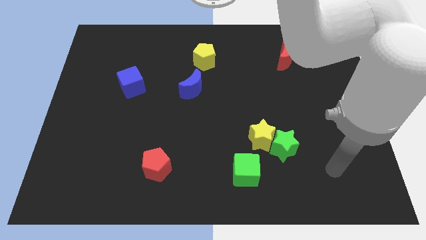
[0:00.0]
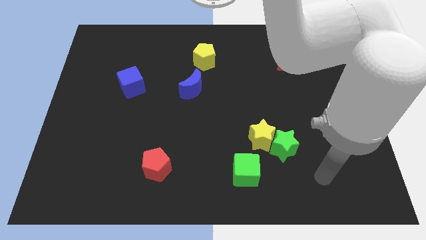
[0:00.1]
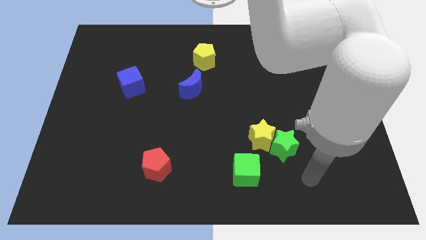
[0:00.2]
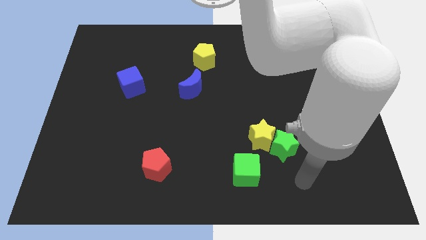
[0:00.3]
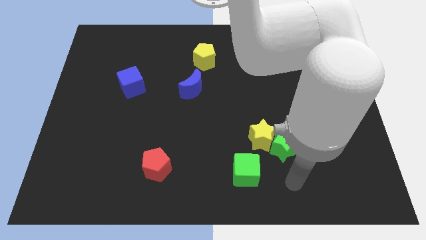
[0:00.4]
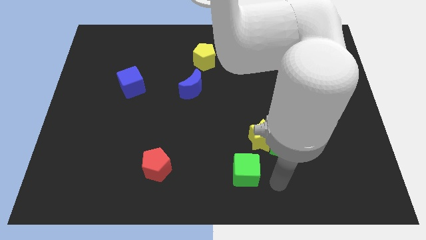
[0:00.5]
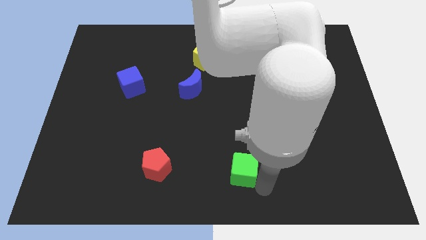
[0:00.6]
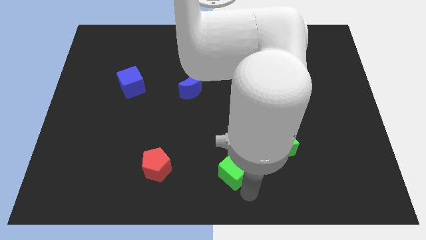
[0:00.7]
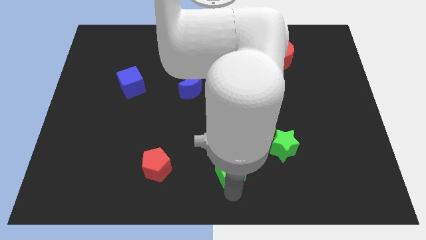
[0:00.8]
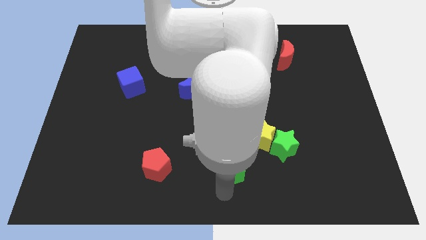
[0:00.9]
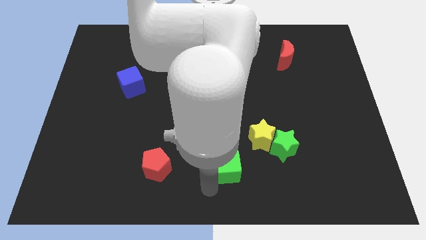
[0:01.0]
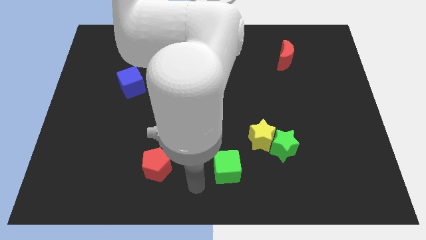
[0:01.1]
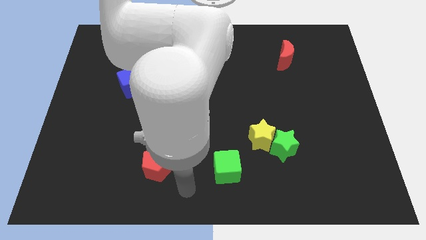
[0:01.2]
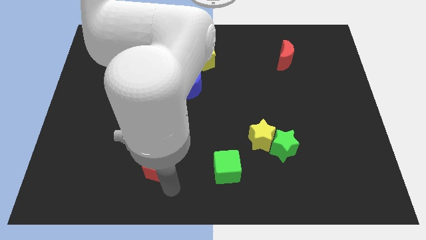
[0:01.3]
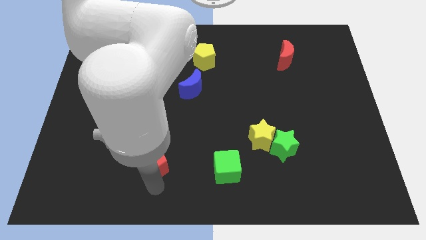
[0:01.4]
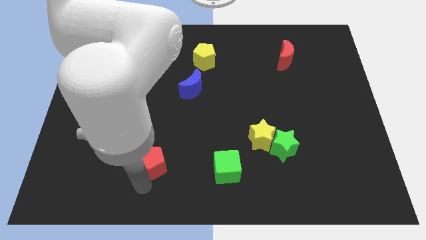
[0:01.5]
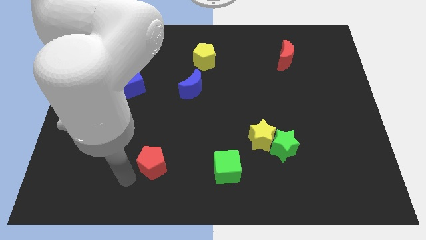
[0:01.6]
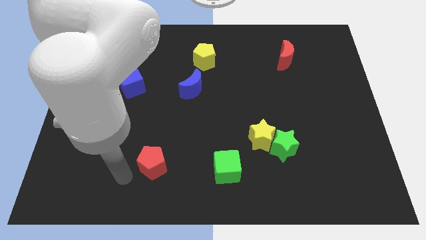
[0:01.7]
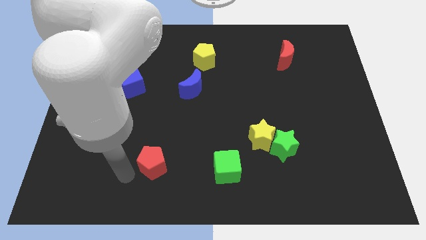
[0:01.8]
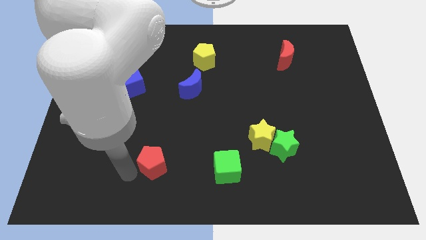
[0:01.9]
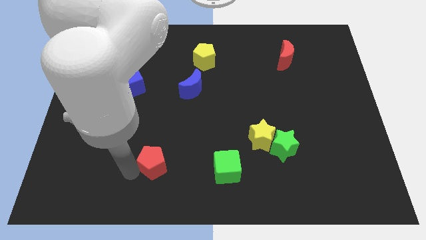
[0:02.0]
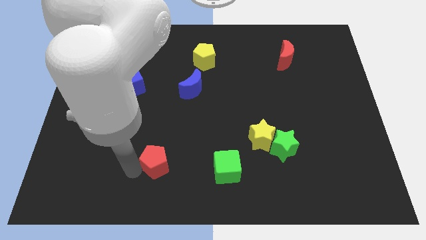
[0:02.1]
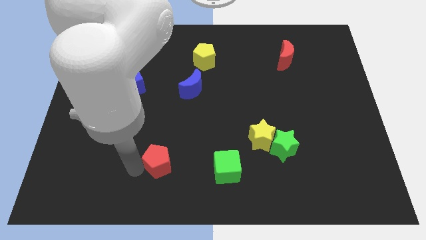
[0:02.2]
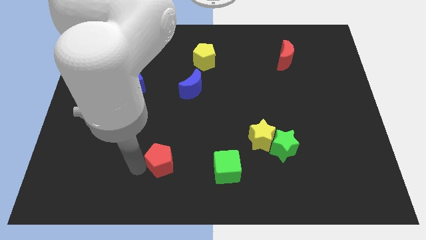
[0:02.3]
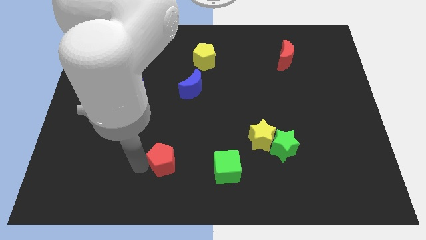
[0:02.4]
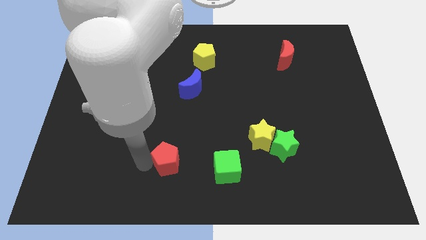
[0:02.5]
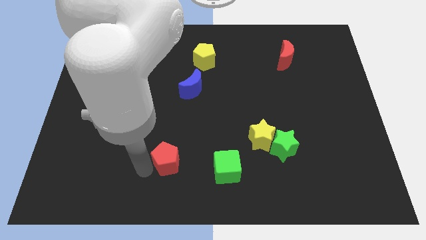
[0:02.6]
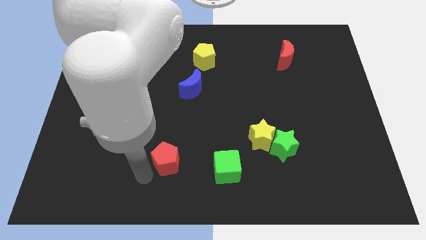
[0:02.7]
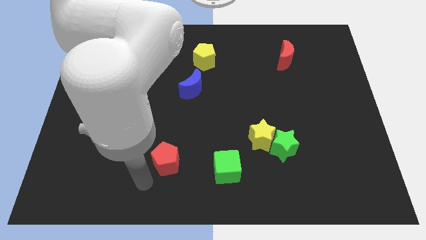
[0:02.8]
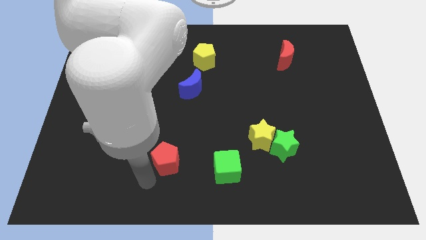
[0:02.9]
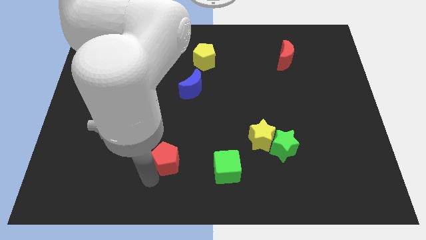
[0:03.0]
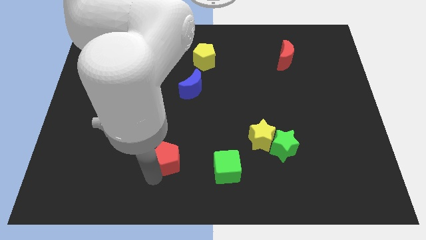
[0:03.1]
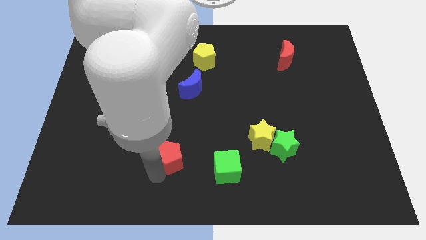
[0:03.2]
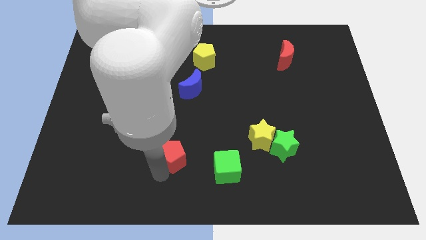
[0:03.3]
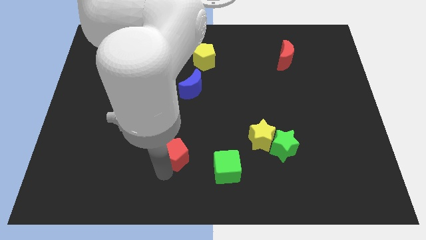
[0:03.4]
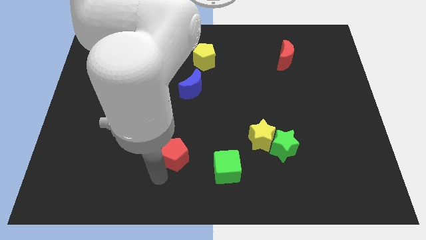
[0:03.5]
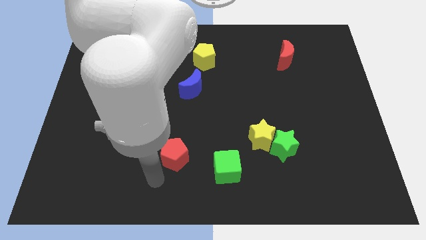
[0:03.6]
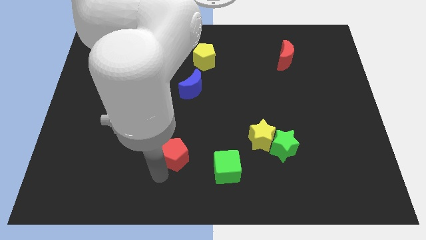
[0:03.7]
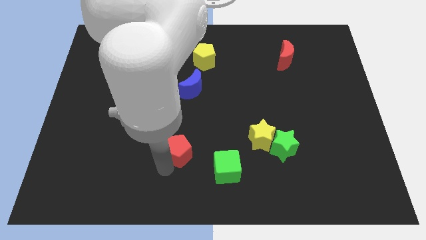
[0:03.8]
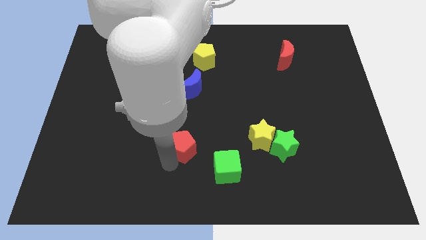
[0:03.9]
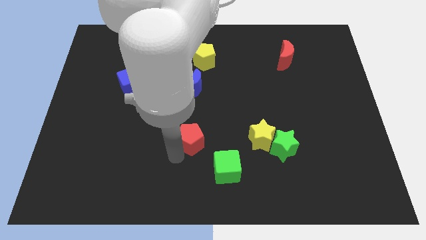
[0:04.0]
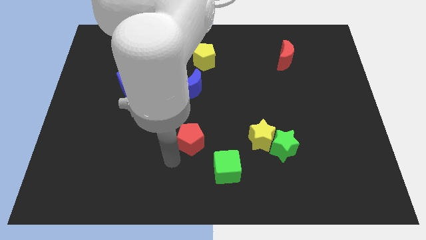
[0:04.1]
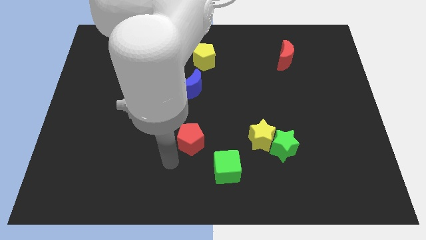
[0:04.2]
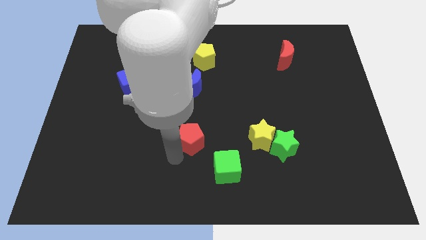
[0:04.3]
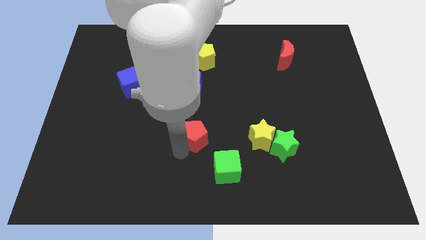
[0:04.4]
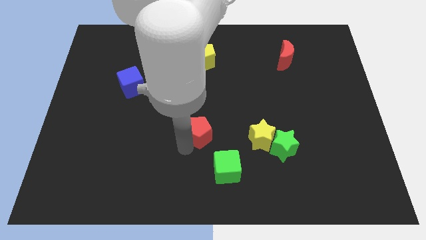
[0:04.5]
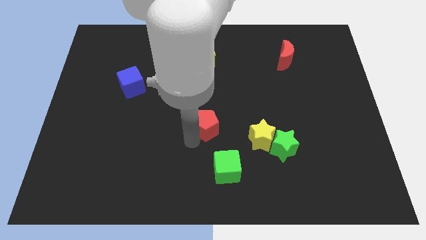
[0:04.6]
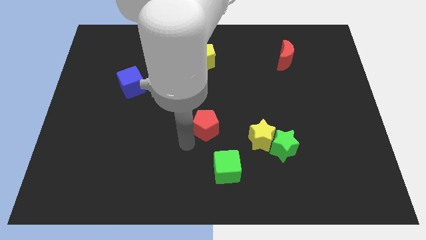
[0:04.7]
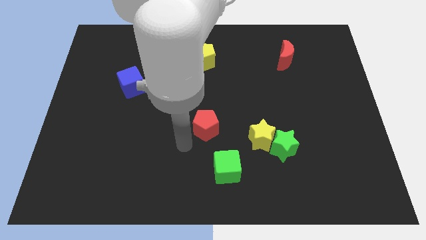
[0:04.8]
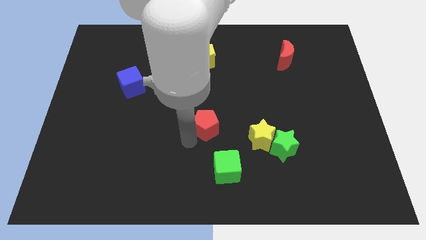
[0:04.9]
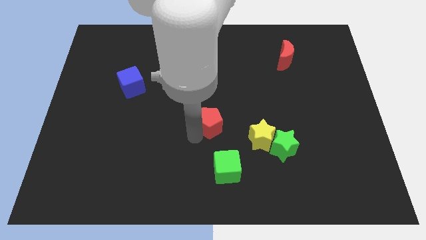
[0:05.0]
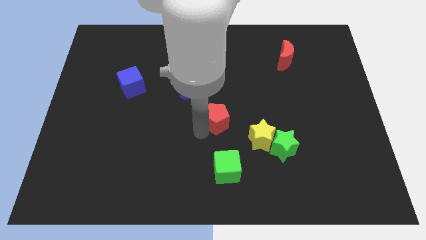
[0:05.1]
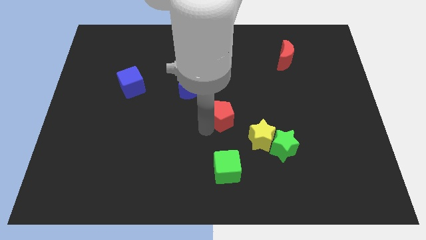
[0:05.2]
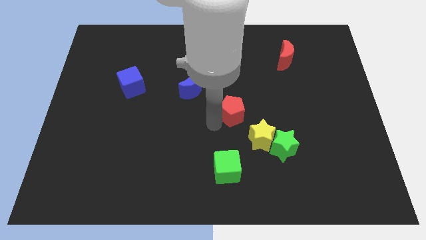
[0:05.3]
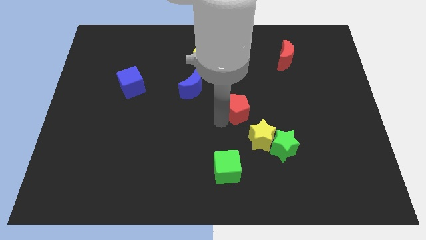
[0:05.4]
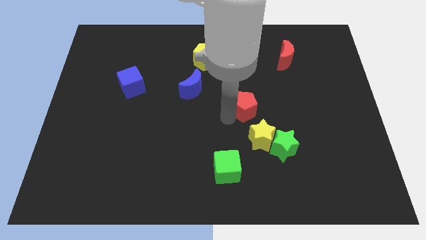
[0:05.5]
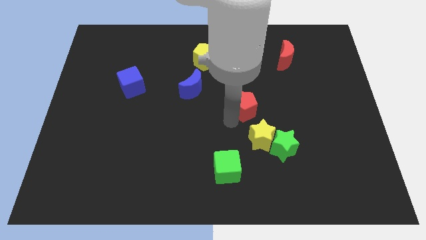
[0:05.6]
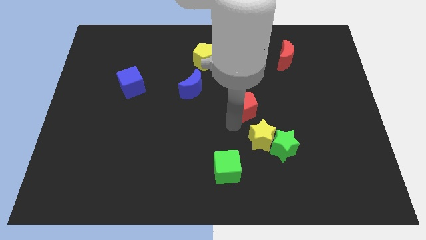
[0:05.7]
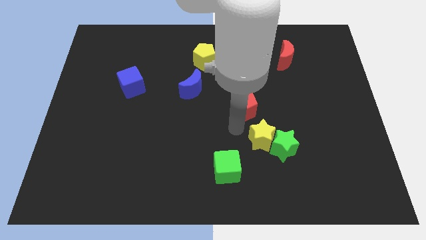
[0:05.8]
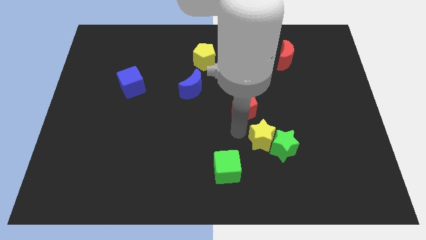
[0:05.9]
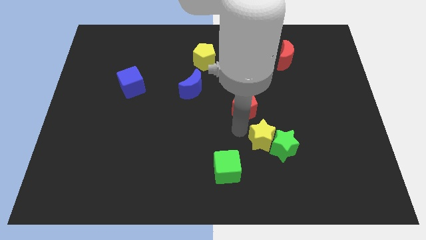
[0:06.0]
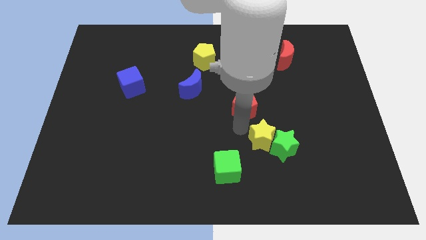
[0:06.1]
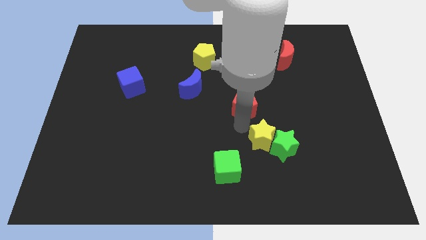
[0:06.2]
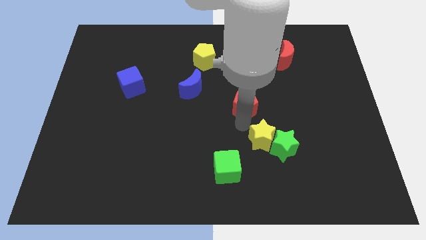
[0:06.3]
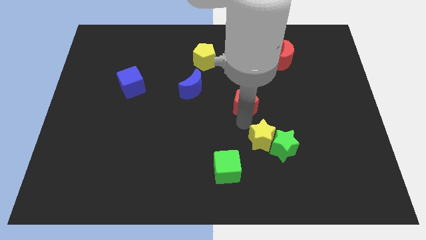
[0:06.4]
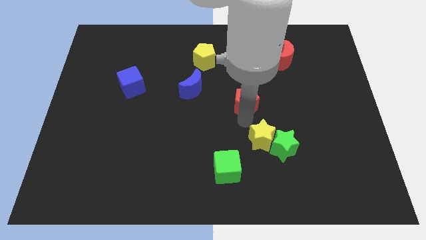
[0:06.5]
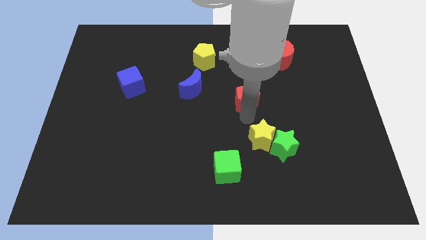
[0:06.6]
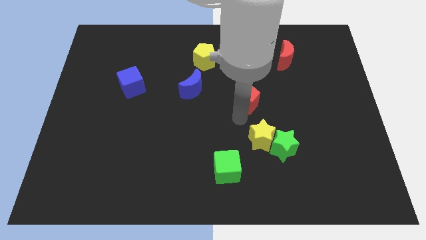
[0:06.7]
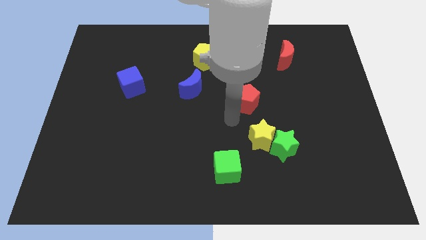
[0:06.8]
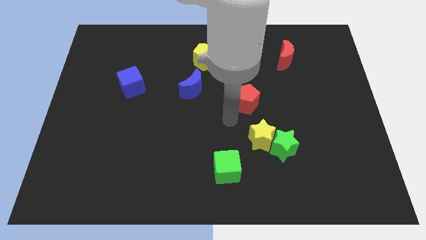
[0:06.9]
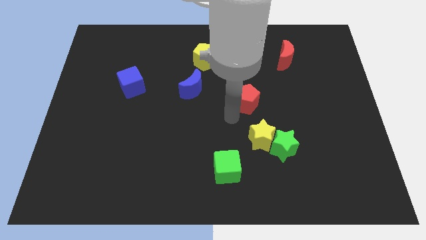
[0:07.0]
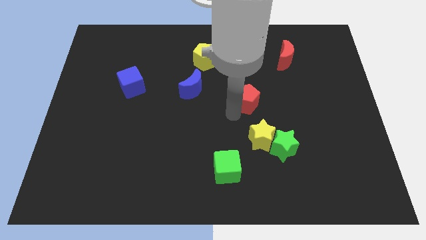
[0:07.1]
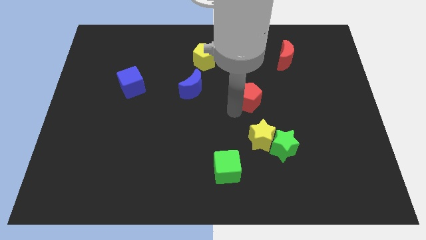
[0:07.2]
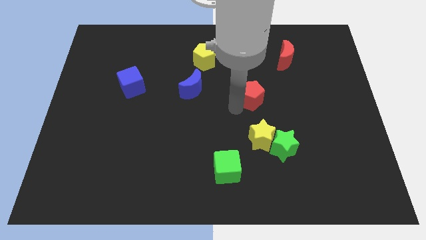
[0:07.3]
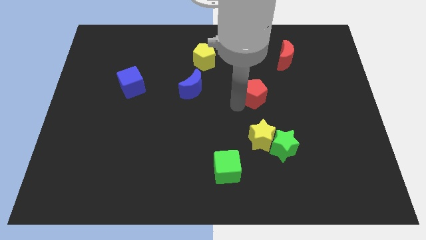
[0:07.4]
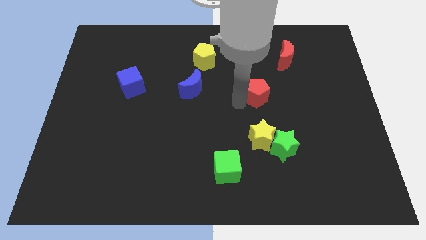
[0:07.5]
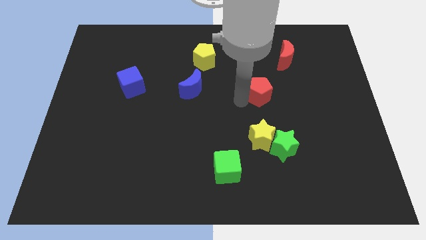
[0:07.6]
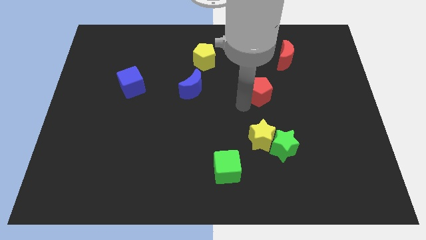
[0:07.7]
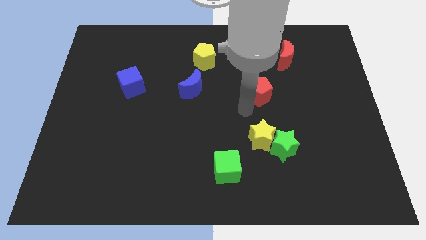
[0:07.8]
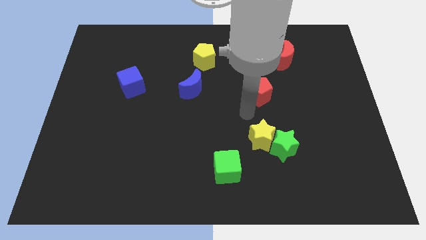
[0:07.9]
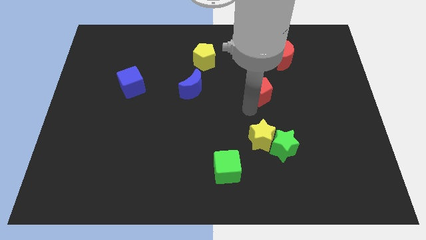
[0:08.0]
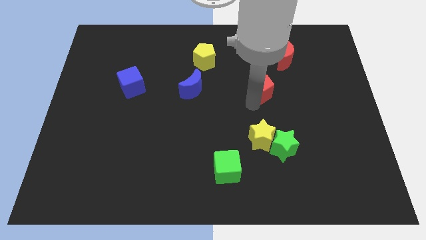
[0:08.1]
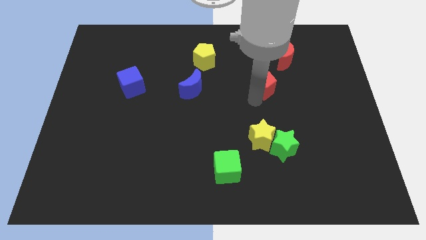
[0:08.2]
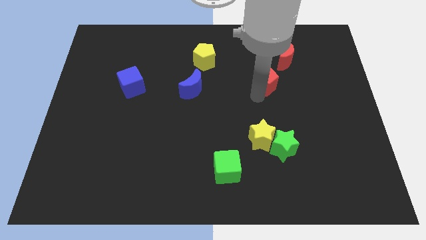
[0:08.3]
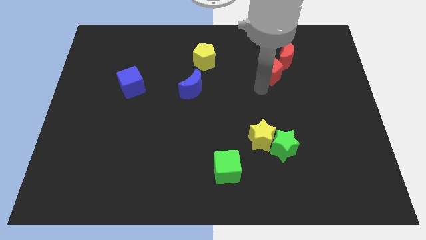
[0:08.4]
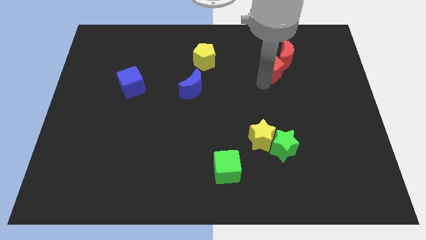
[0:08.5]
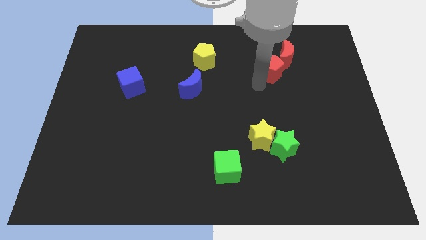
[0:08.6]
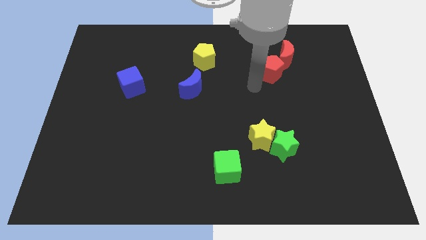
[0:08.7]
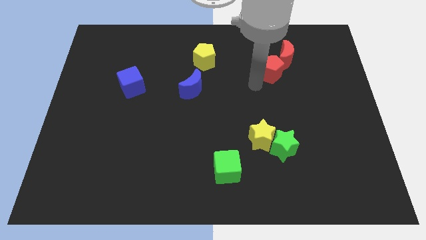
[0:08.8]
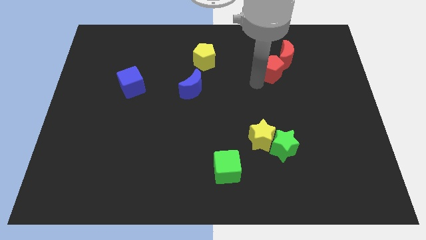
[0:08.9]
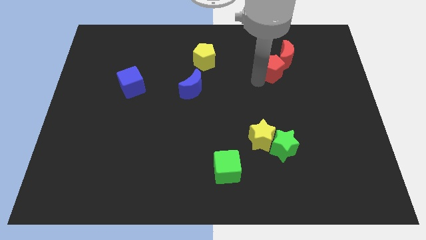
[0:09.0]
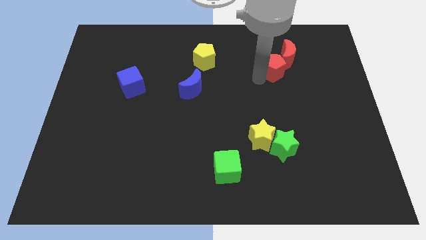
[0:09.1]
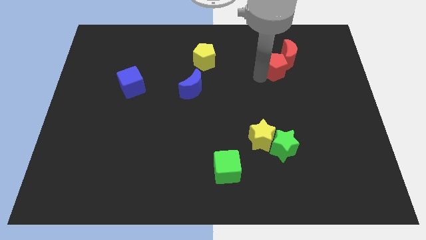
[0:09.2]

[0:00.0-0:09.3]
slide the red pentagon close to the red moon
